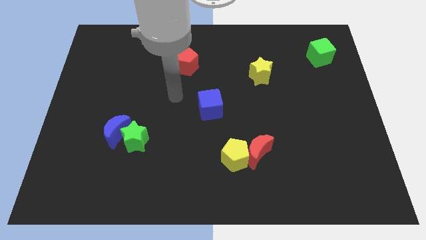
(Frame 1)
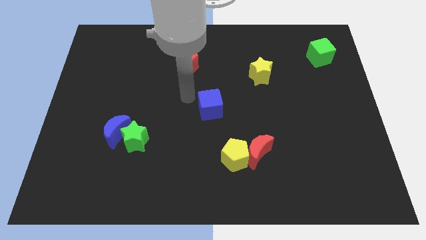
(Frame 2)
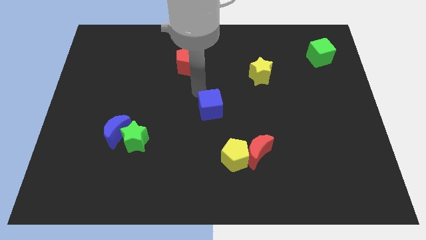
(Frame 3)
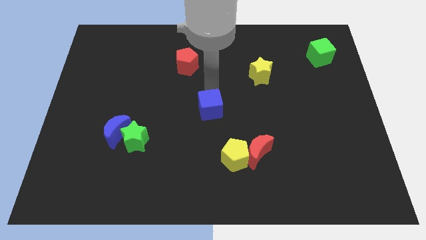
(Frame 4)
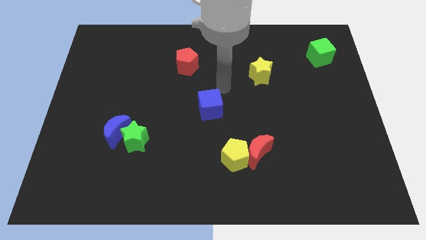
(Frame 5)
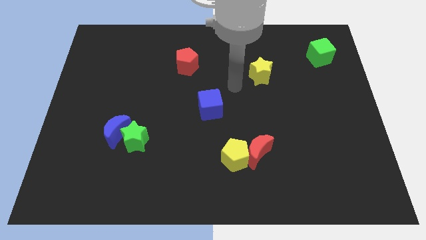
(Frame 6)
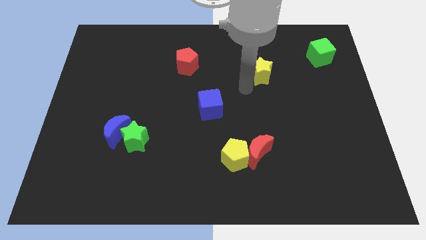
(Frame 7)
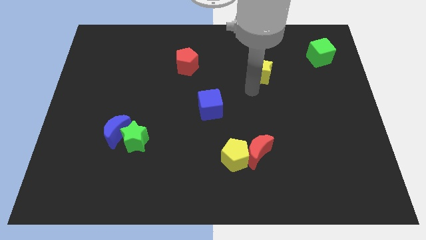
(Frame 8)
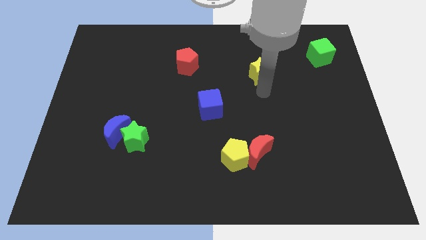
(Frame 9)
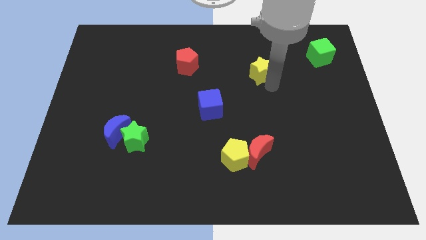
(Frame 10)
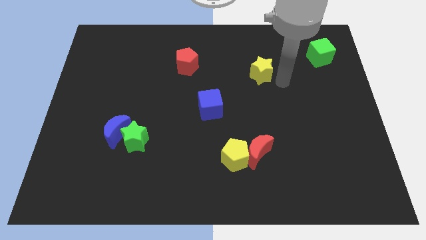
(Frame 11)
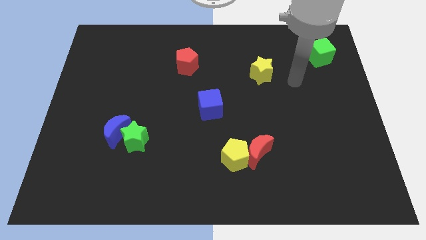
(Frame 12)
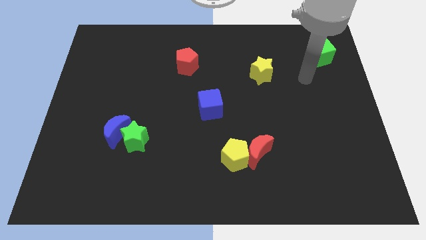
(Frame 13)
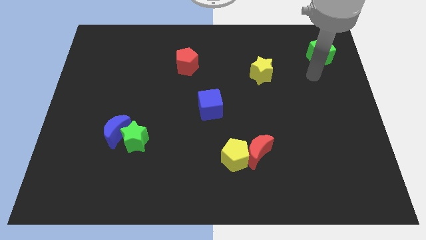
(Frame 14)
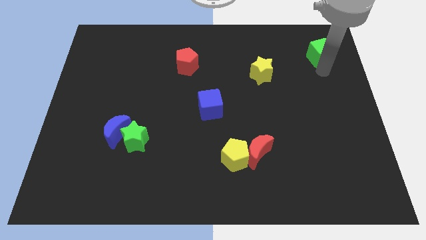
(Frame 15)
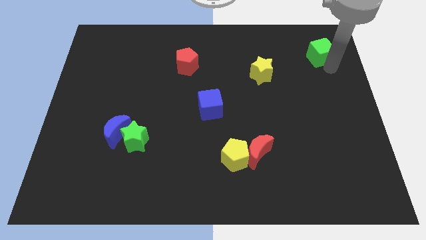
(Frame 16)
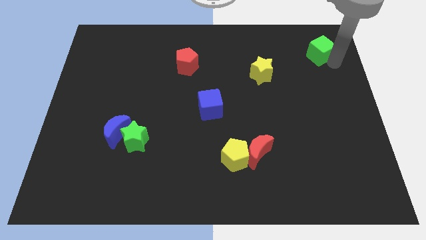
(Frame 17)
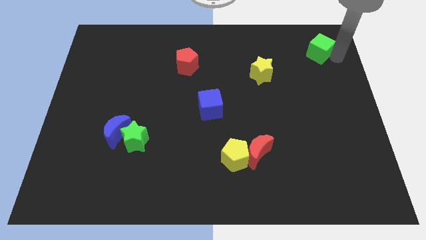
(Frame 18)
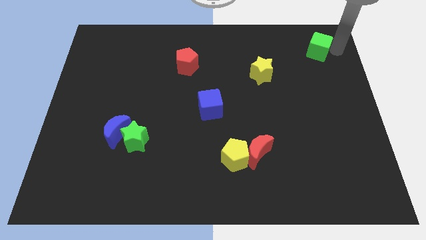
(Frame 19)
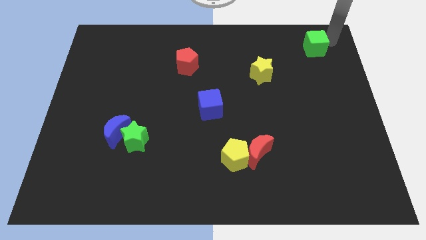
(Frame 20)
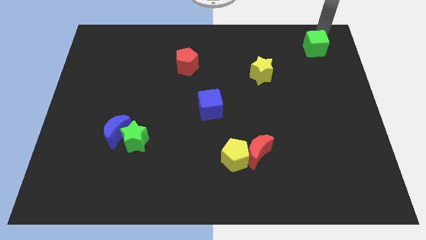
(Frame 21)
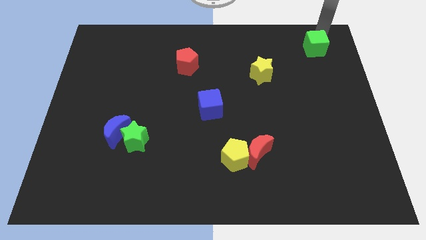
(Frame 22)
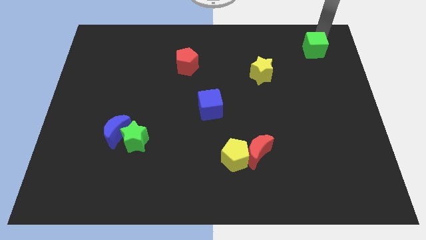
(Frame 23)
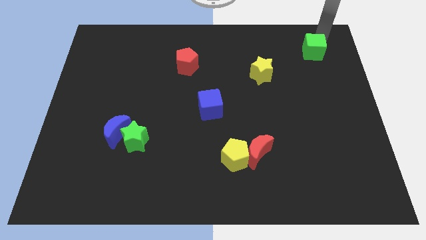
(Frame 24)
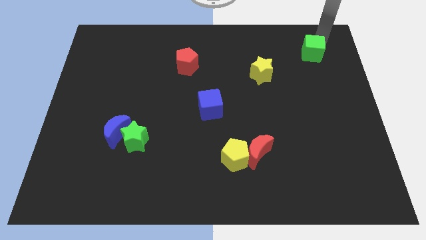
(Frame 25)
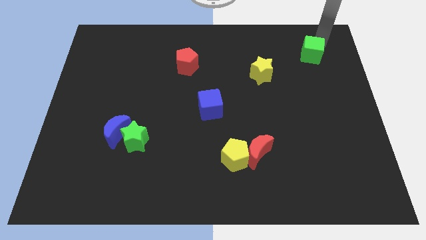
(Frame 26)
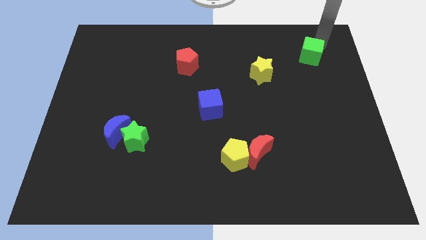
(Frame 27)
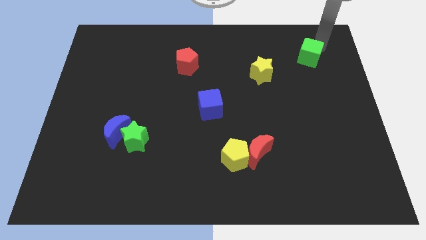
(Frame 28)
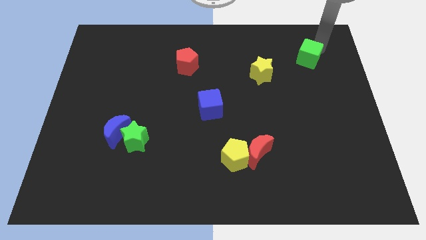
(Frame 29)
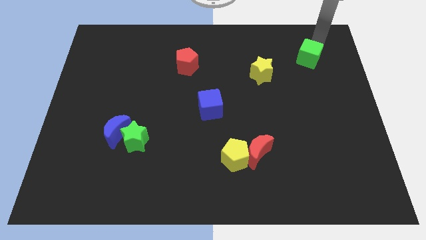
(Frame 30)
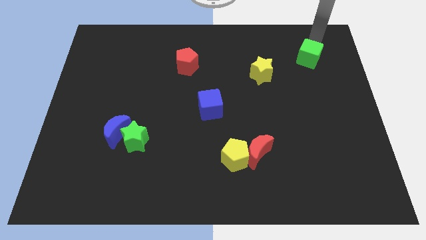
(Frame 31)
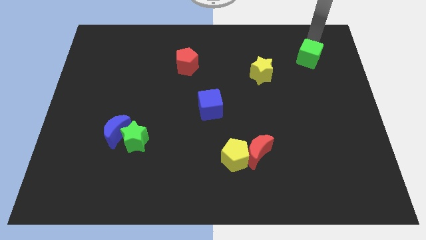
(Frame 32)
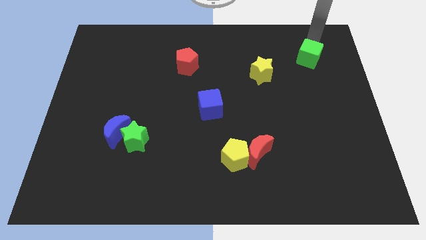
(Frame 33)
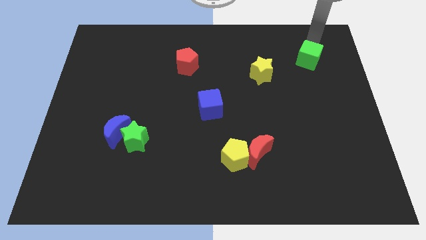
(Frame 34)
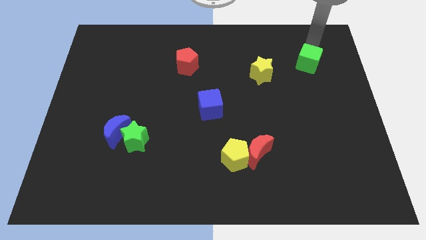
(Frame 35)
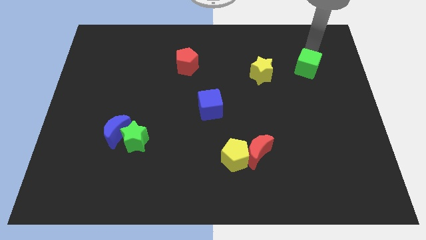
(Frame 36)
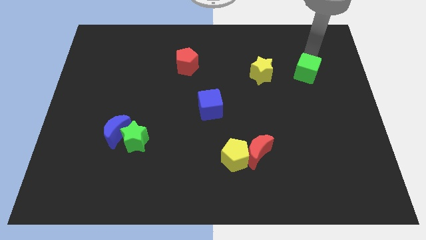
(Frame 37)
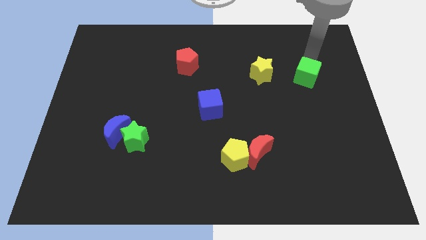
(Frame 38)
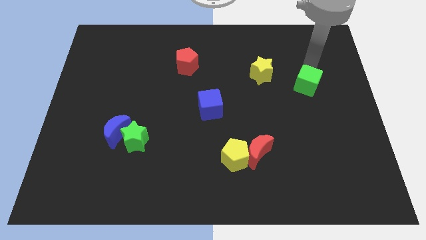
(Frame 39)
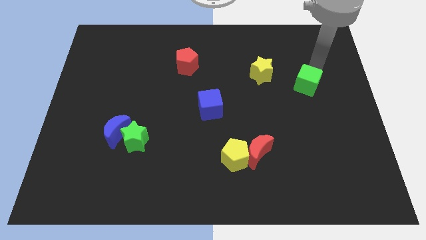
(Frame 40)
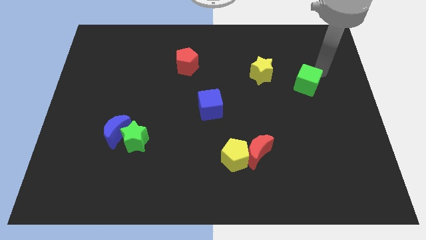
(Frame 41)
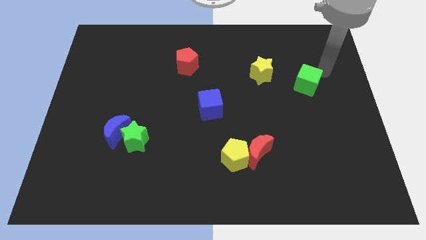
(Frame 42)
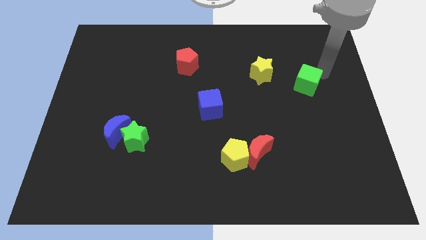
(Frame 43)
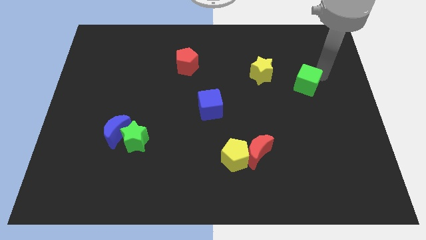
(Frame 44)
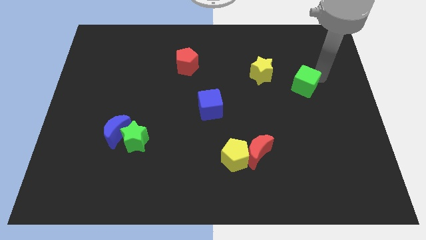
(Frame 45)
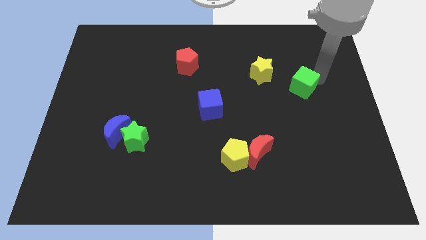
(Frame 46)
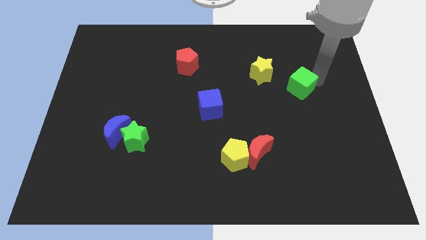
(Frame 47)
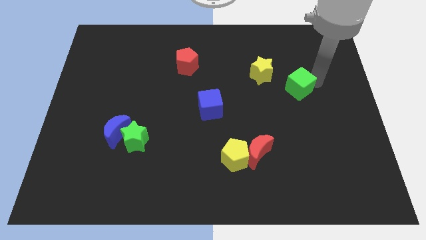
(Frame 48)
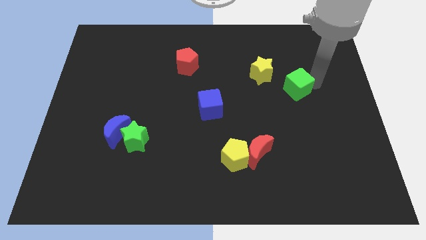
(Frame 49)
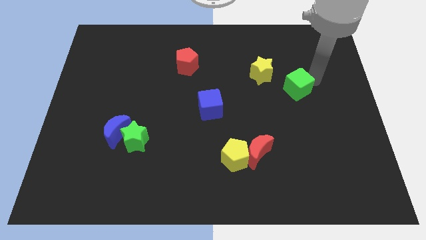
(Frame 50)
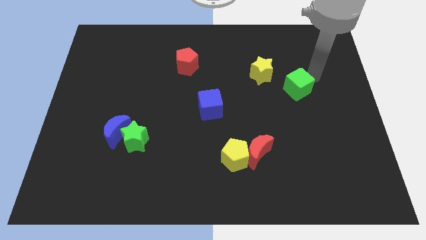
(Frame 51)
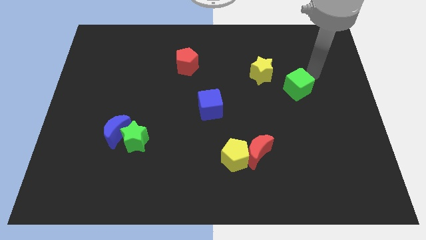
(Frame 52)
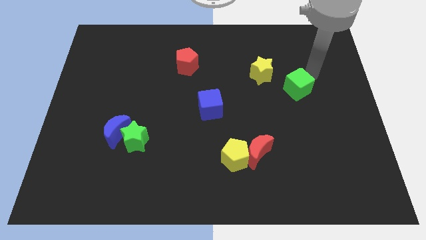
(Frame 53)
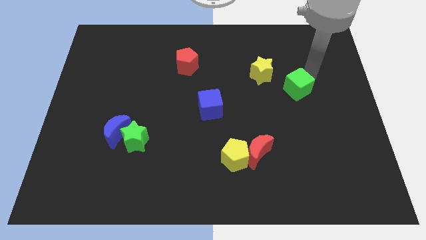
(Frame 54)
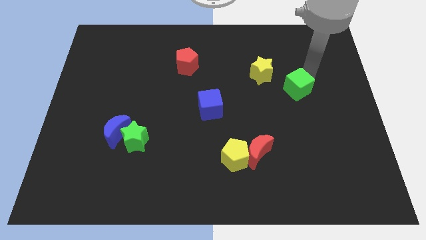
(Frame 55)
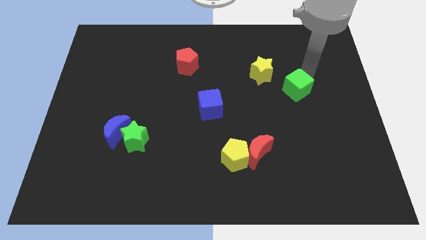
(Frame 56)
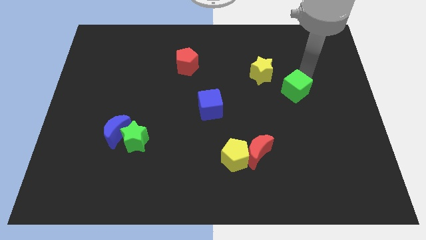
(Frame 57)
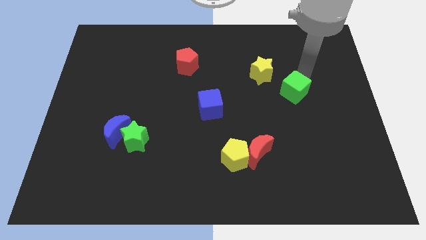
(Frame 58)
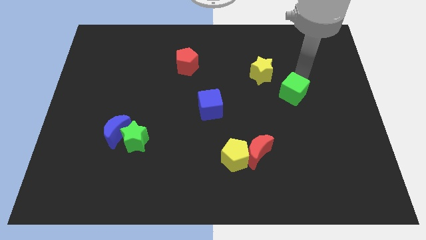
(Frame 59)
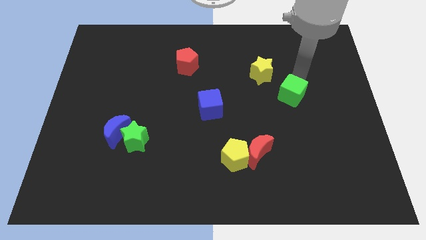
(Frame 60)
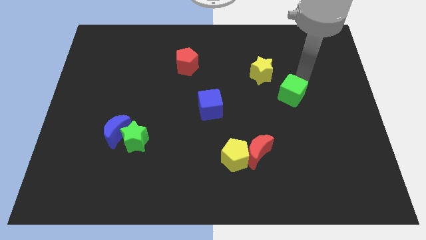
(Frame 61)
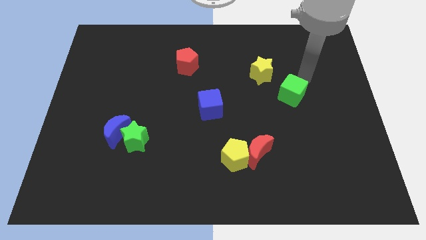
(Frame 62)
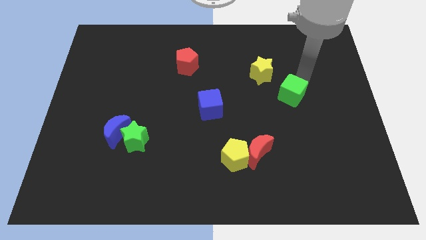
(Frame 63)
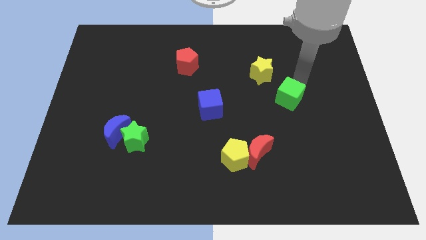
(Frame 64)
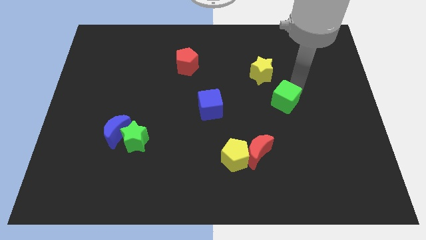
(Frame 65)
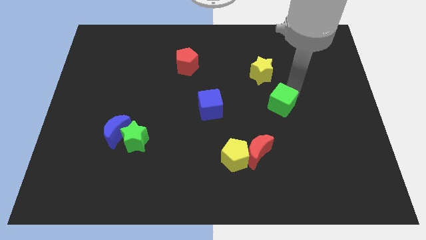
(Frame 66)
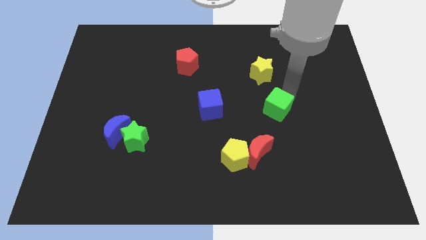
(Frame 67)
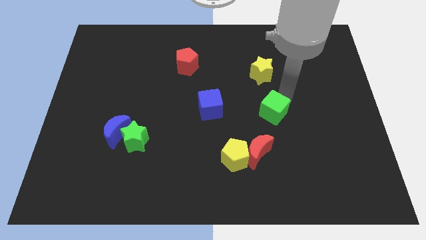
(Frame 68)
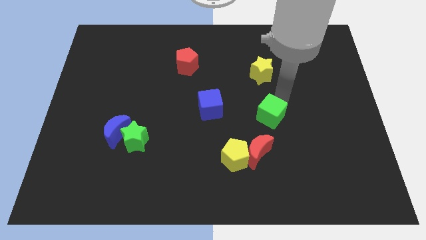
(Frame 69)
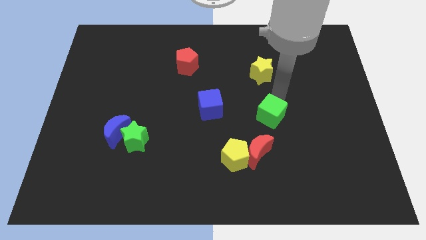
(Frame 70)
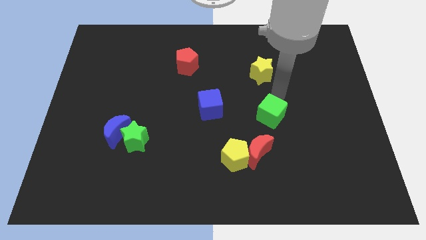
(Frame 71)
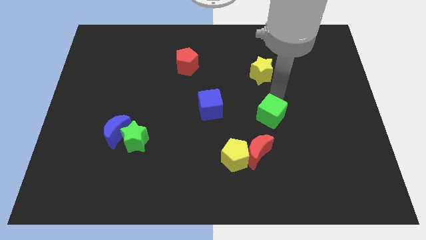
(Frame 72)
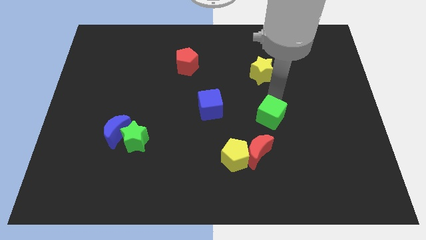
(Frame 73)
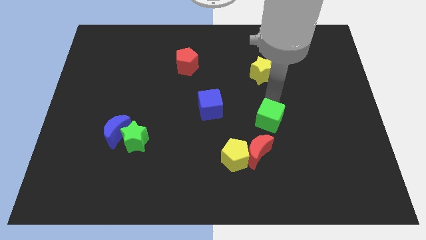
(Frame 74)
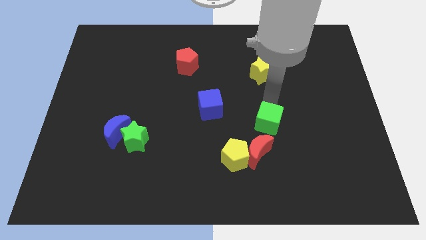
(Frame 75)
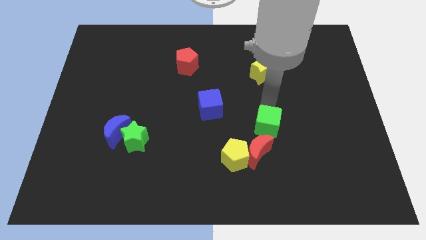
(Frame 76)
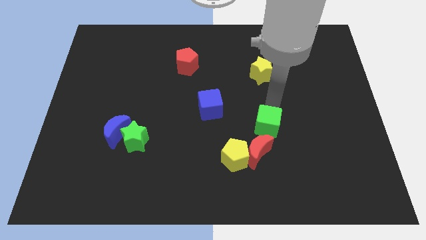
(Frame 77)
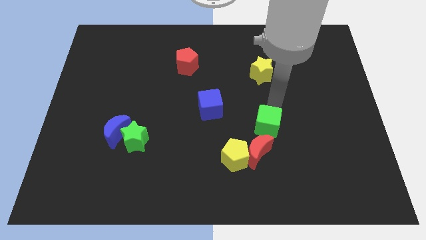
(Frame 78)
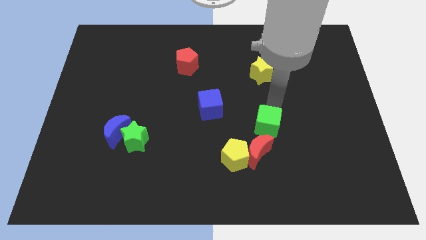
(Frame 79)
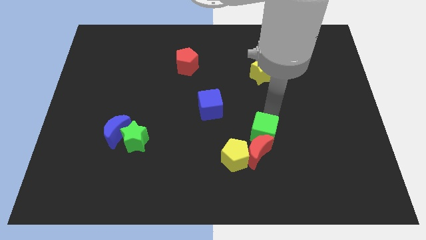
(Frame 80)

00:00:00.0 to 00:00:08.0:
put the green cube to the red moon
